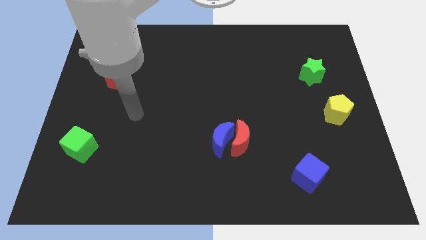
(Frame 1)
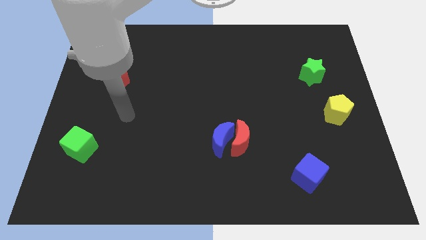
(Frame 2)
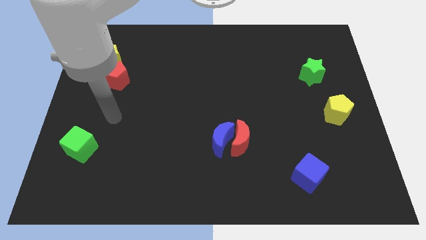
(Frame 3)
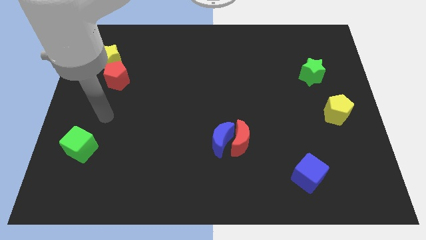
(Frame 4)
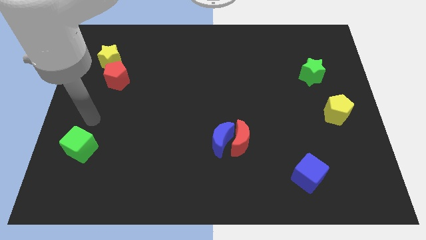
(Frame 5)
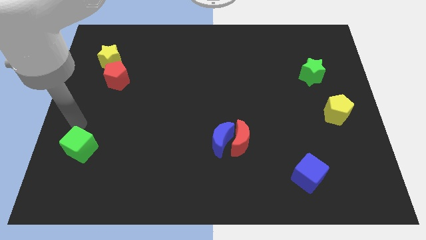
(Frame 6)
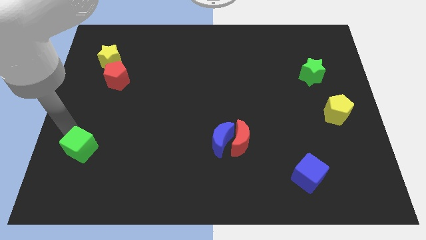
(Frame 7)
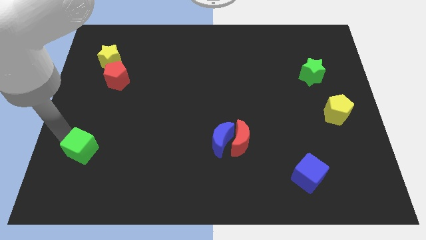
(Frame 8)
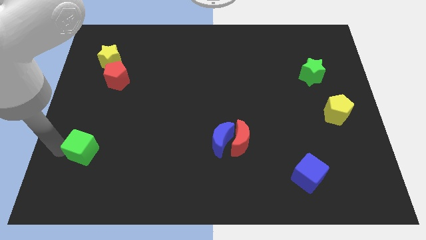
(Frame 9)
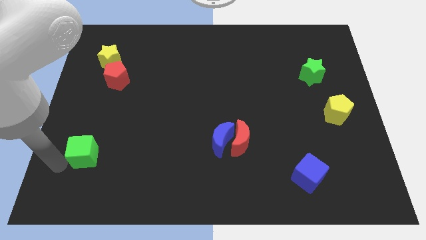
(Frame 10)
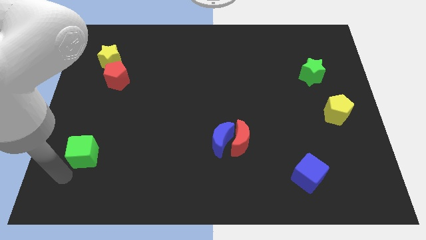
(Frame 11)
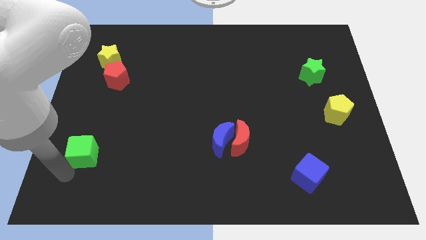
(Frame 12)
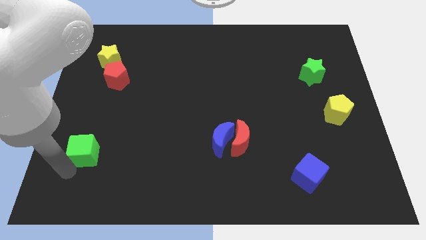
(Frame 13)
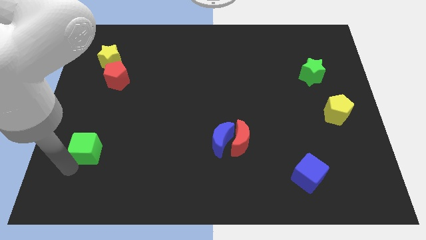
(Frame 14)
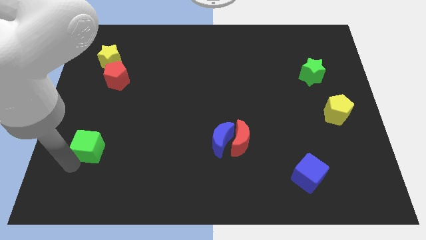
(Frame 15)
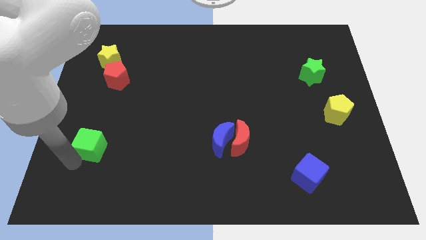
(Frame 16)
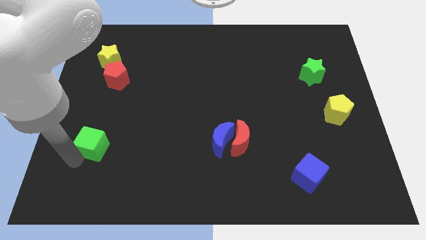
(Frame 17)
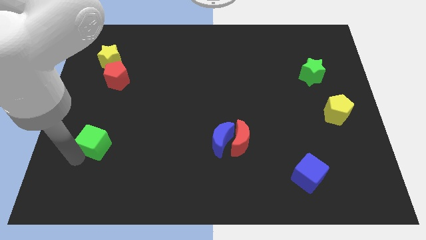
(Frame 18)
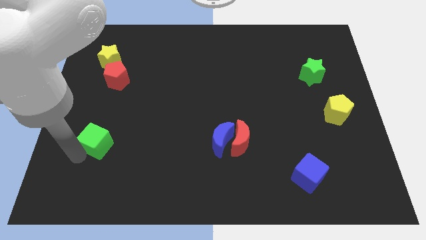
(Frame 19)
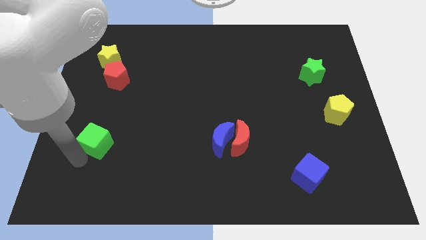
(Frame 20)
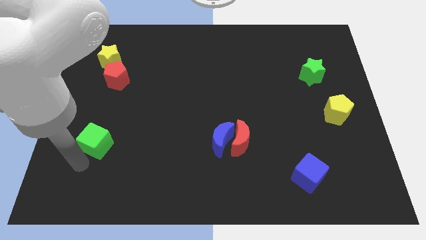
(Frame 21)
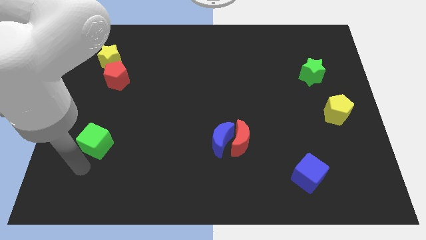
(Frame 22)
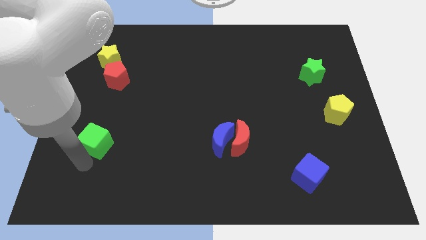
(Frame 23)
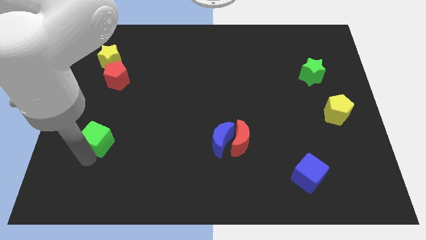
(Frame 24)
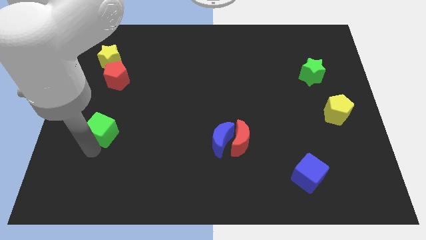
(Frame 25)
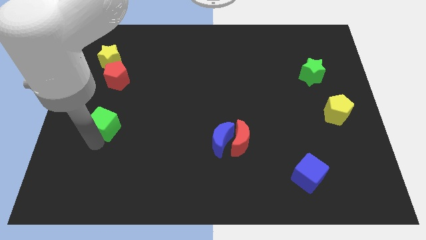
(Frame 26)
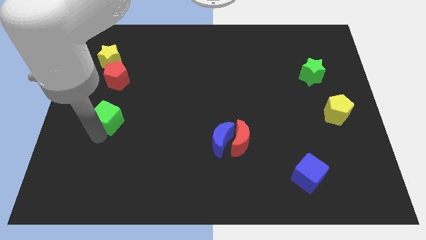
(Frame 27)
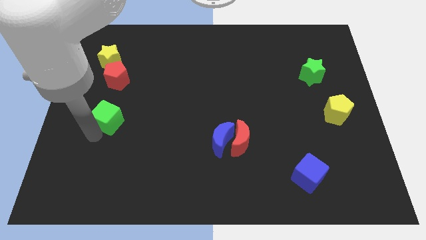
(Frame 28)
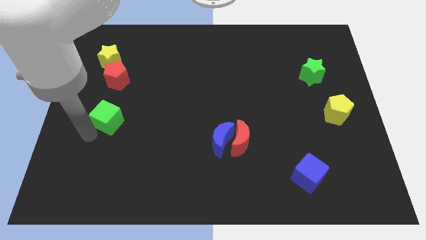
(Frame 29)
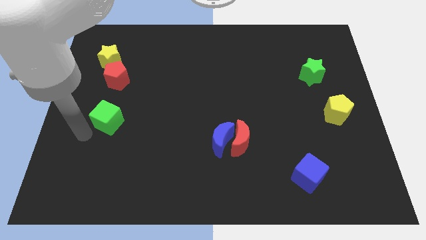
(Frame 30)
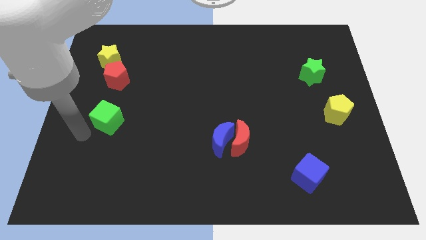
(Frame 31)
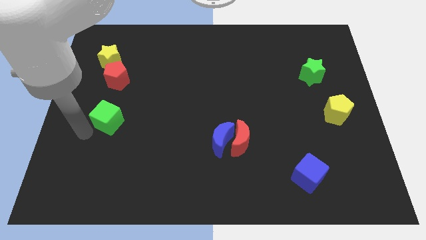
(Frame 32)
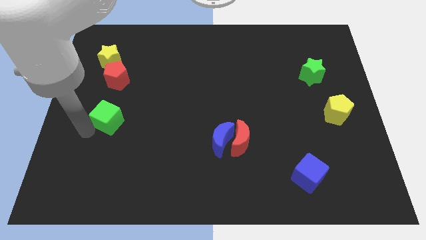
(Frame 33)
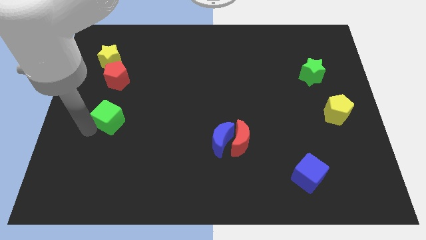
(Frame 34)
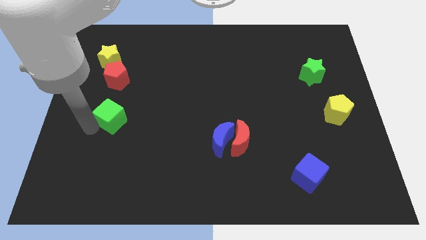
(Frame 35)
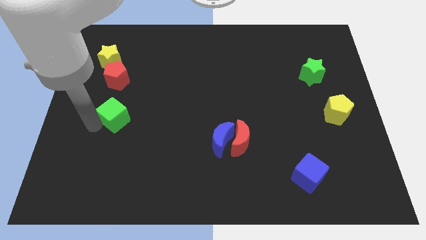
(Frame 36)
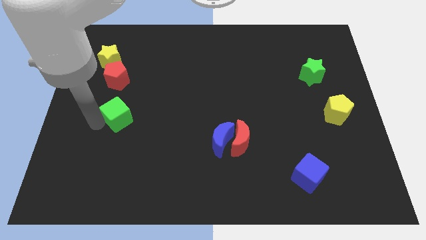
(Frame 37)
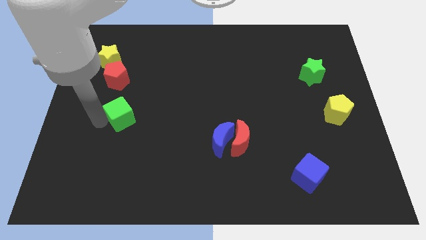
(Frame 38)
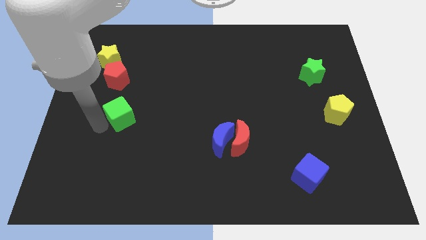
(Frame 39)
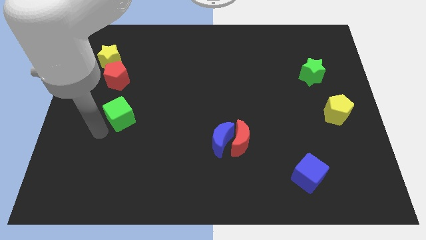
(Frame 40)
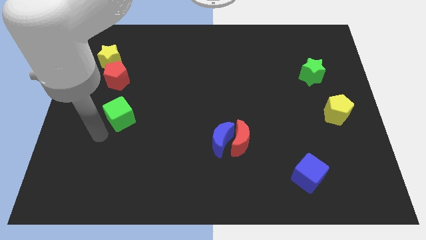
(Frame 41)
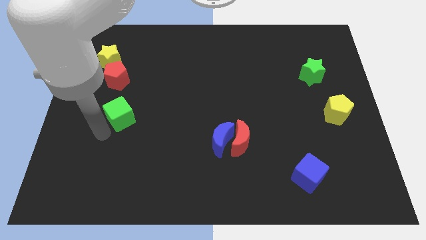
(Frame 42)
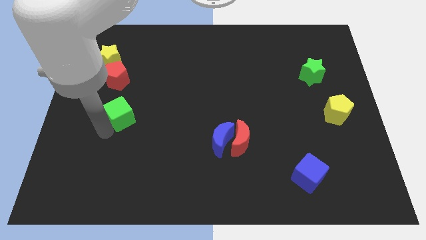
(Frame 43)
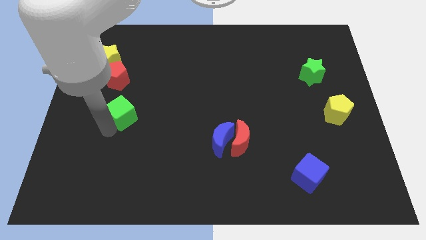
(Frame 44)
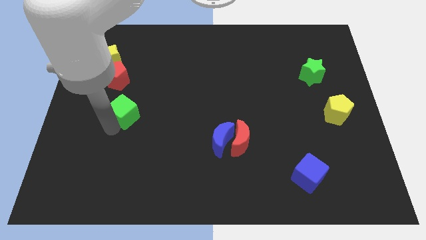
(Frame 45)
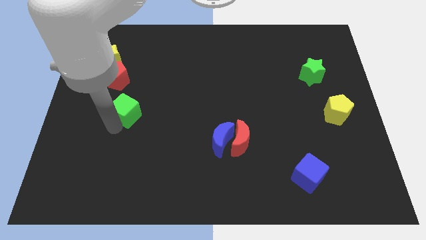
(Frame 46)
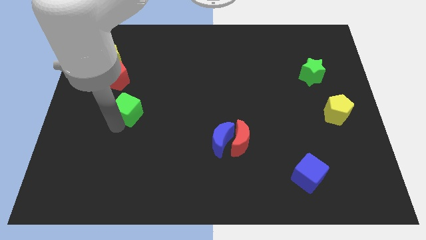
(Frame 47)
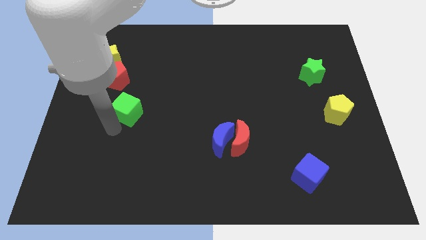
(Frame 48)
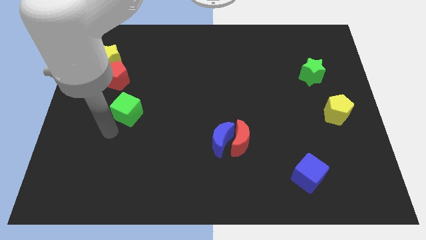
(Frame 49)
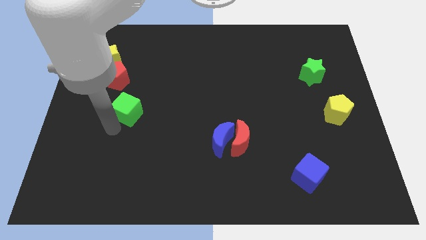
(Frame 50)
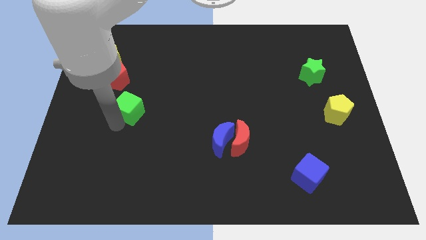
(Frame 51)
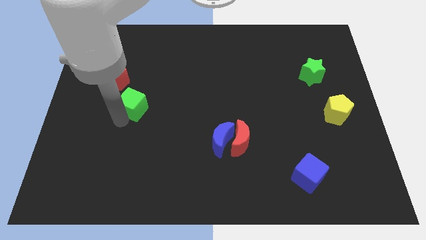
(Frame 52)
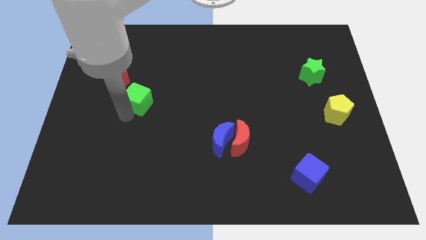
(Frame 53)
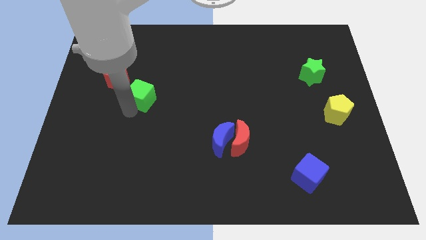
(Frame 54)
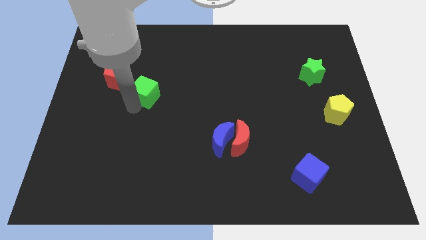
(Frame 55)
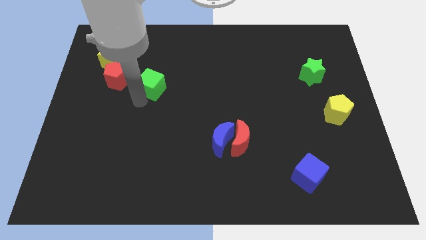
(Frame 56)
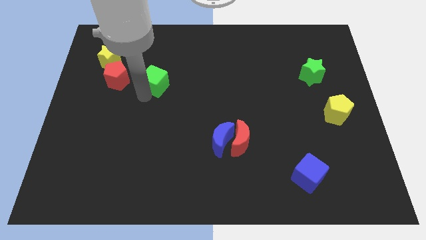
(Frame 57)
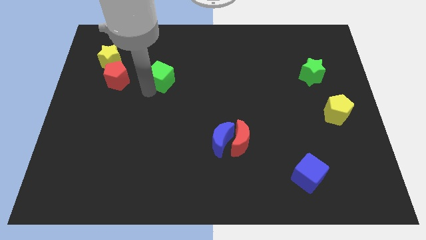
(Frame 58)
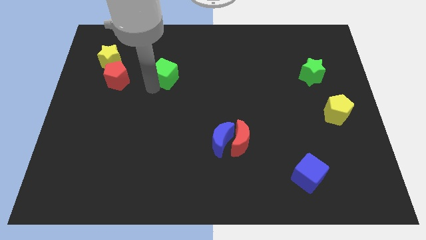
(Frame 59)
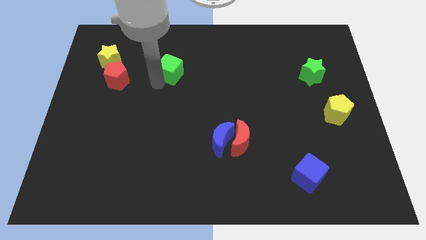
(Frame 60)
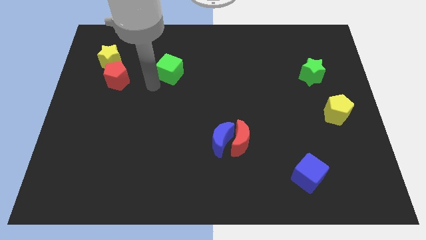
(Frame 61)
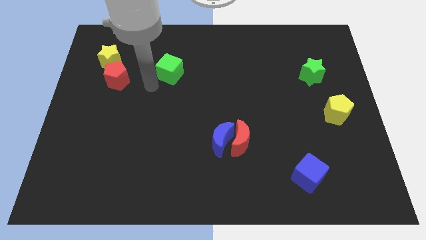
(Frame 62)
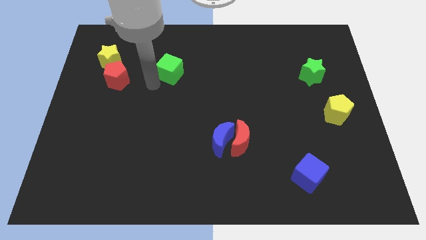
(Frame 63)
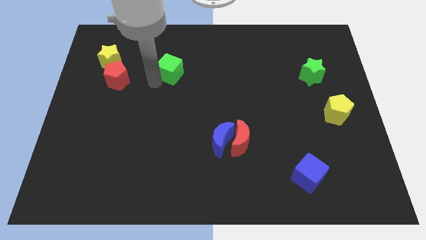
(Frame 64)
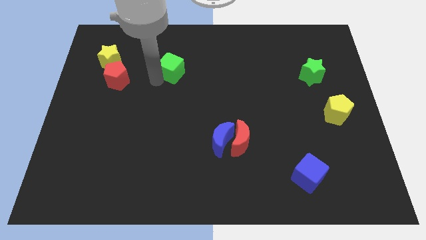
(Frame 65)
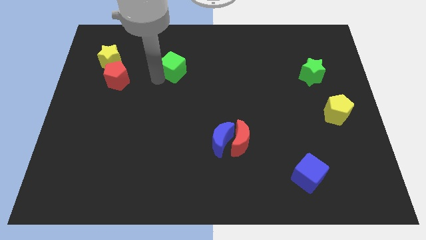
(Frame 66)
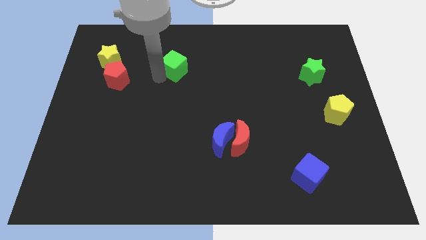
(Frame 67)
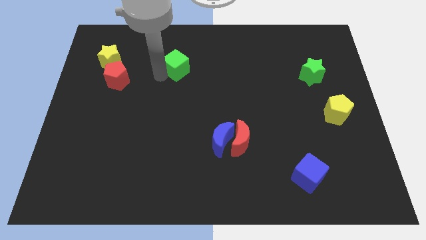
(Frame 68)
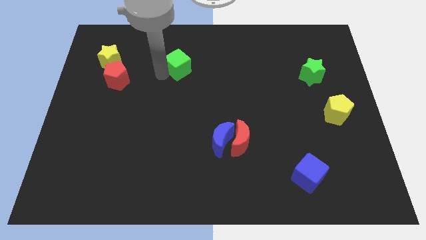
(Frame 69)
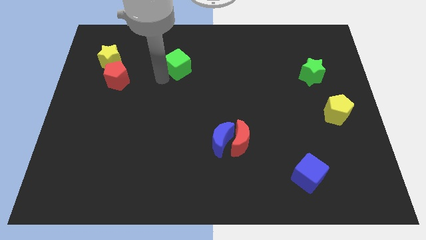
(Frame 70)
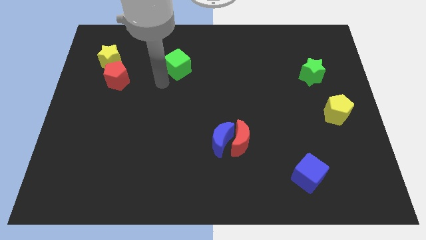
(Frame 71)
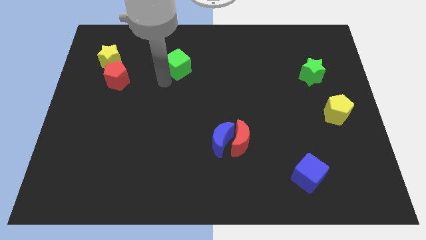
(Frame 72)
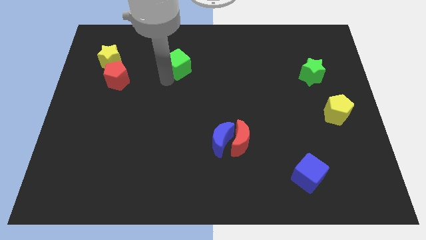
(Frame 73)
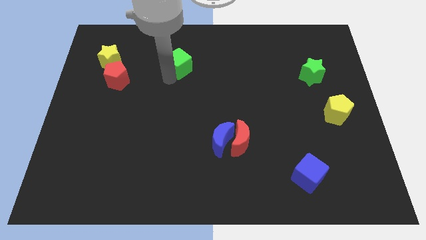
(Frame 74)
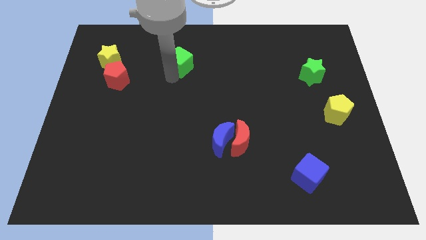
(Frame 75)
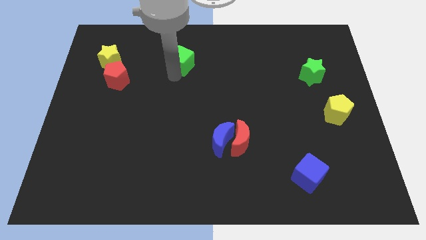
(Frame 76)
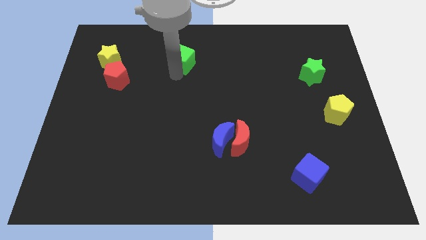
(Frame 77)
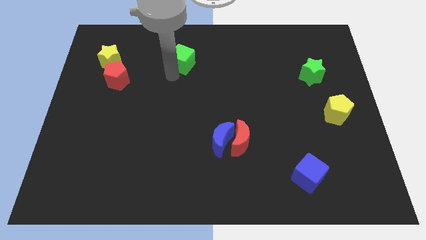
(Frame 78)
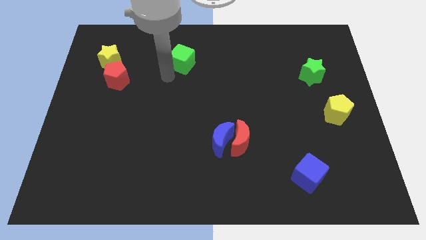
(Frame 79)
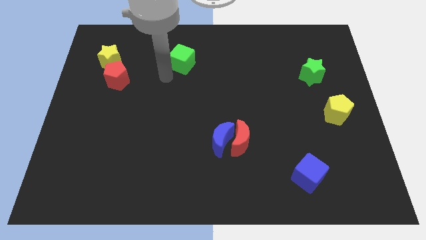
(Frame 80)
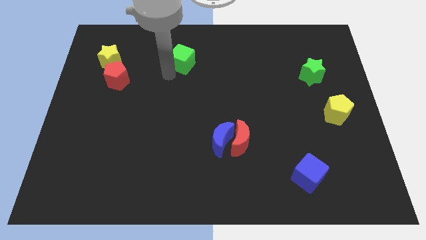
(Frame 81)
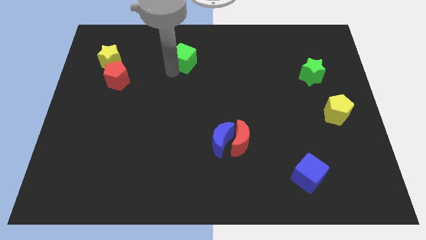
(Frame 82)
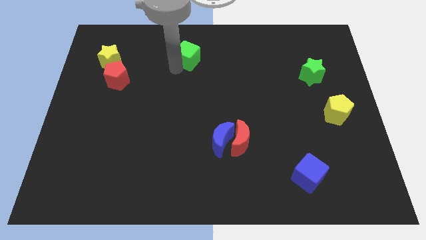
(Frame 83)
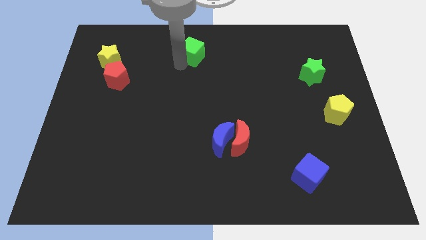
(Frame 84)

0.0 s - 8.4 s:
push the green cube to the towards your base
